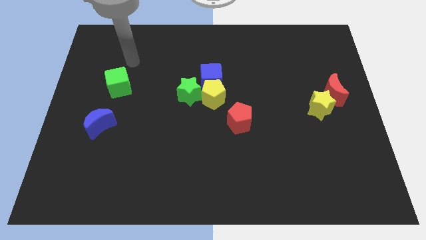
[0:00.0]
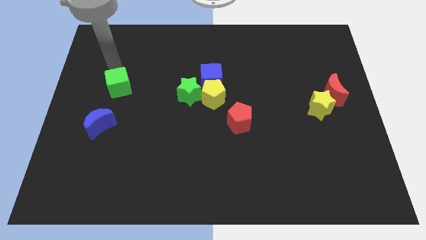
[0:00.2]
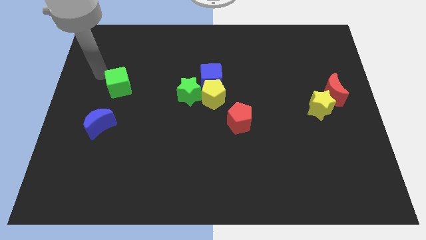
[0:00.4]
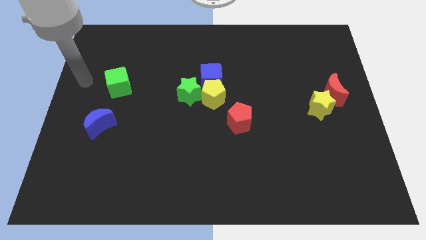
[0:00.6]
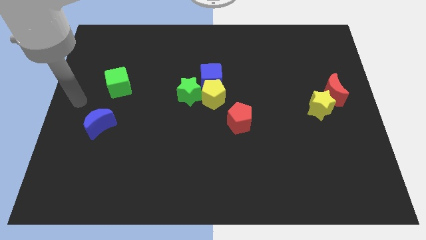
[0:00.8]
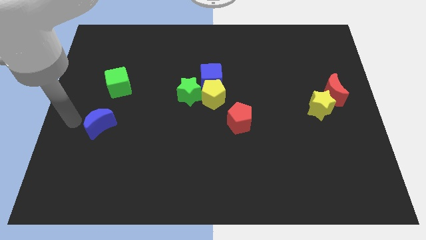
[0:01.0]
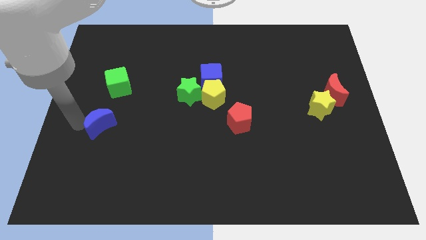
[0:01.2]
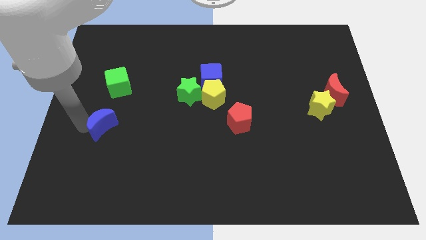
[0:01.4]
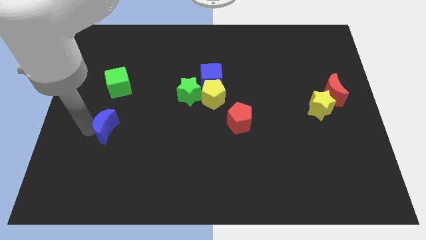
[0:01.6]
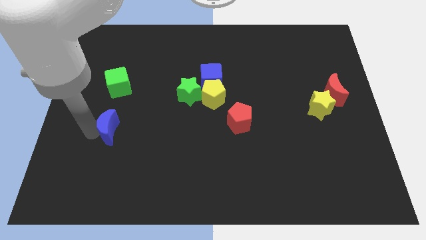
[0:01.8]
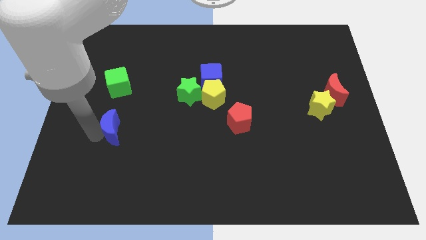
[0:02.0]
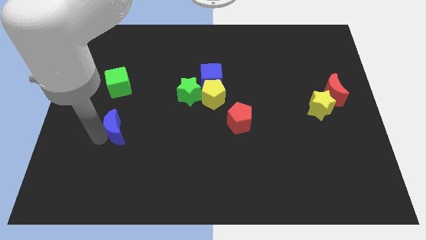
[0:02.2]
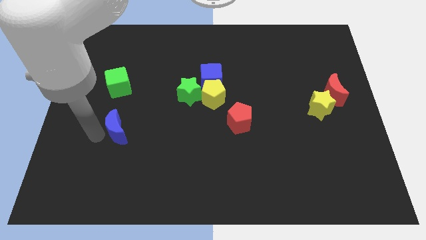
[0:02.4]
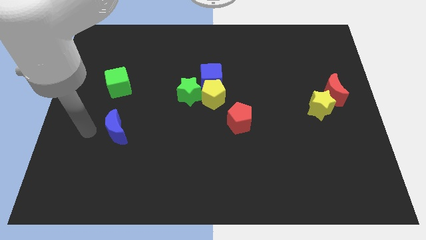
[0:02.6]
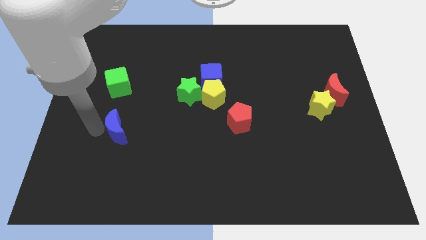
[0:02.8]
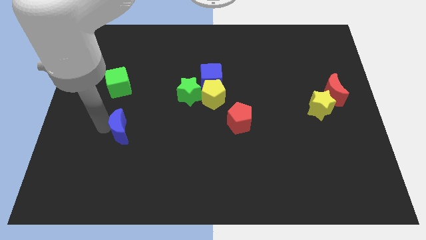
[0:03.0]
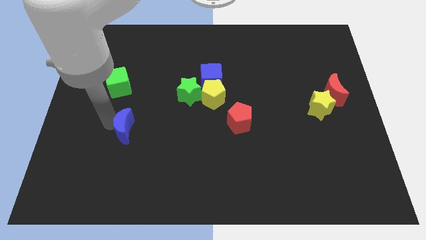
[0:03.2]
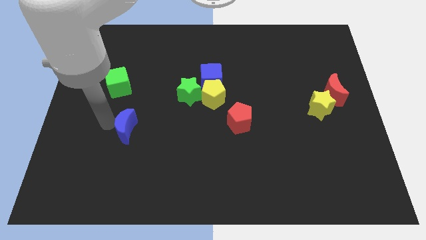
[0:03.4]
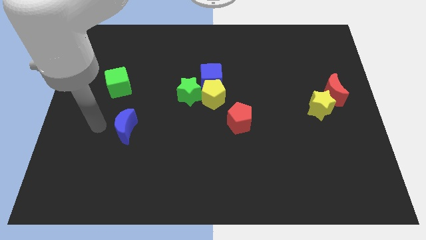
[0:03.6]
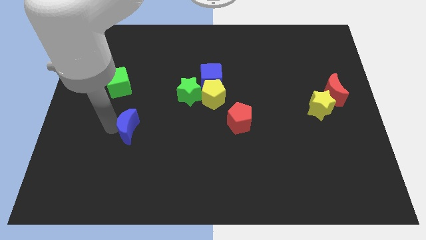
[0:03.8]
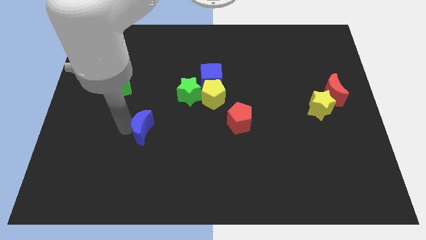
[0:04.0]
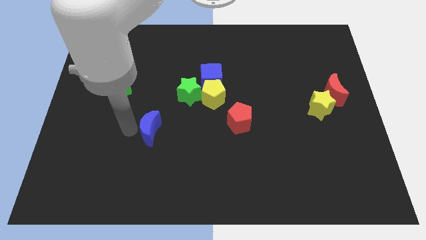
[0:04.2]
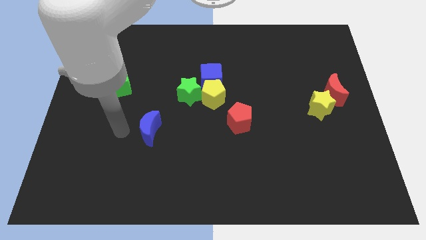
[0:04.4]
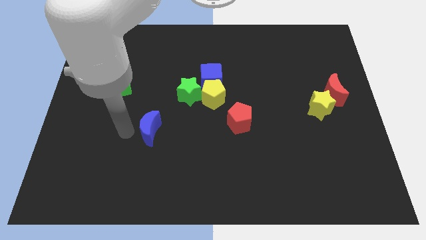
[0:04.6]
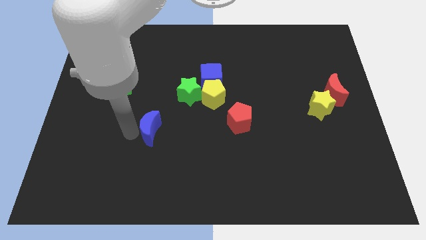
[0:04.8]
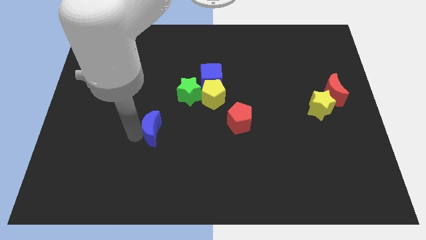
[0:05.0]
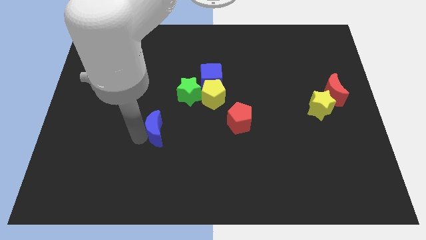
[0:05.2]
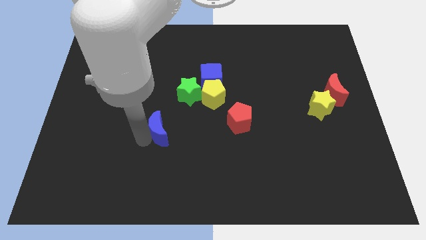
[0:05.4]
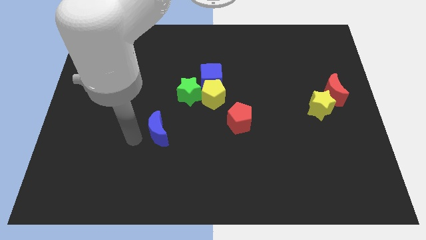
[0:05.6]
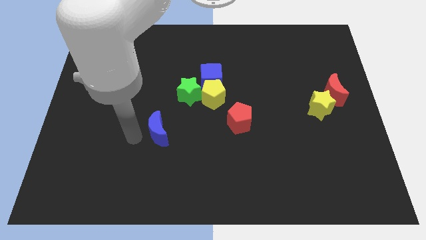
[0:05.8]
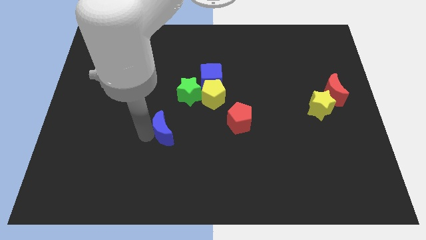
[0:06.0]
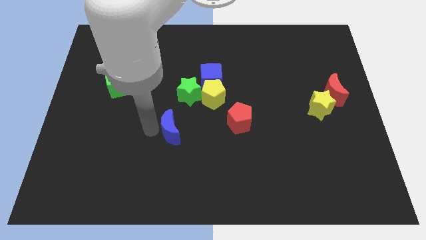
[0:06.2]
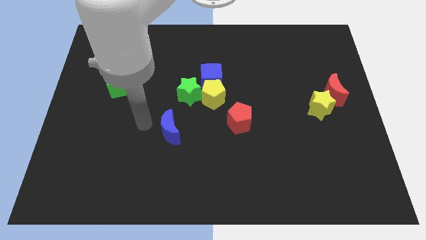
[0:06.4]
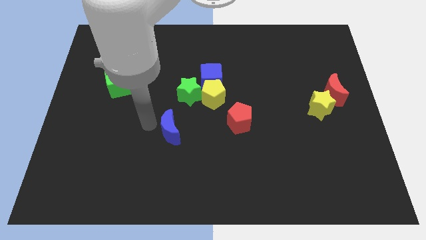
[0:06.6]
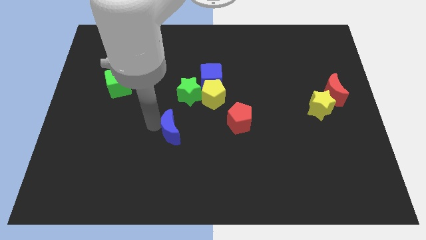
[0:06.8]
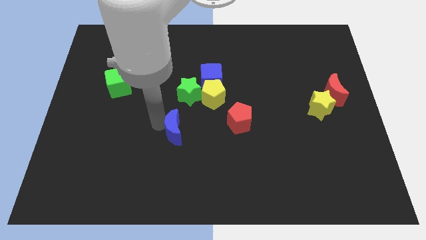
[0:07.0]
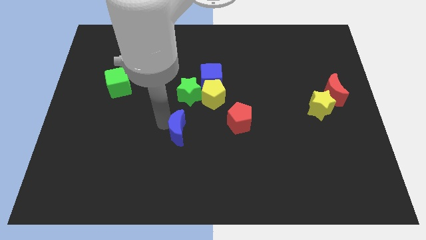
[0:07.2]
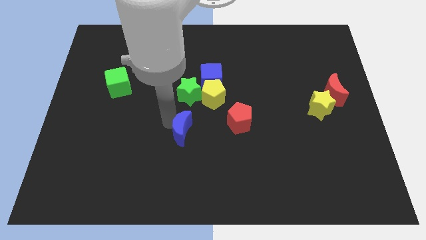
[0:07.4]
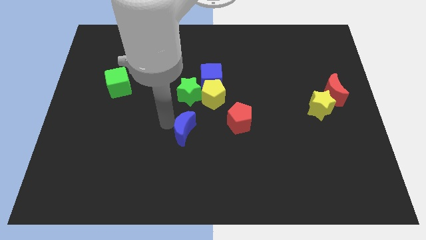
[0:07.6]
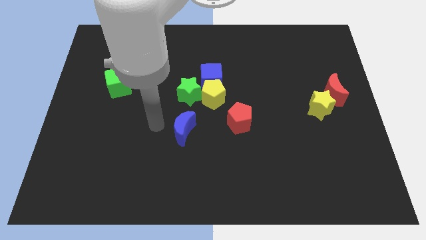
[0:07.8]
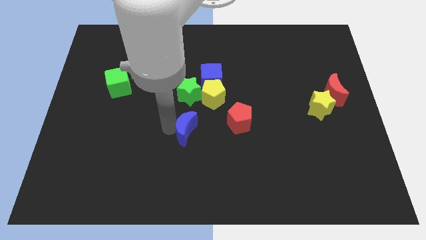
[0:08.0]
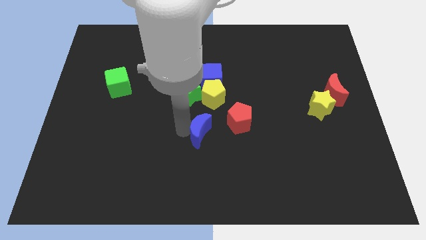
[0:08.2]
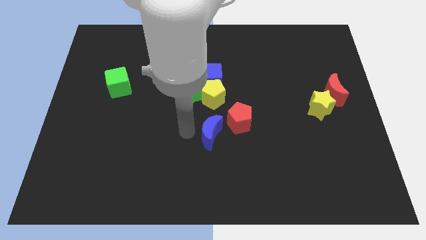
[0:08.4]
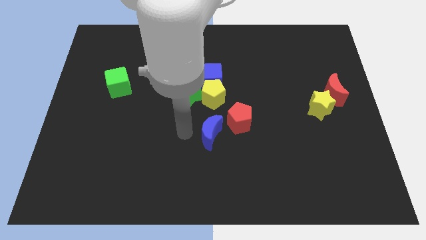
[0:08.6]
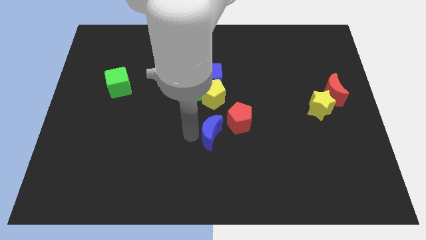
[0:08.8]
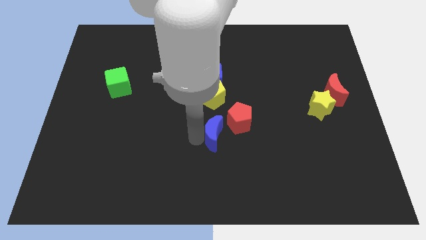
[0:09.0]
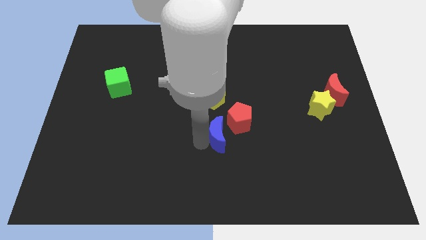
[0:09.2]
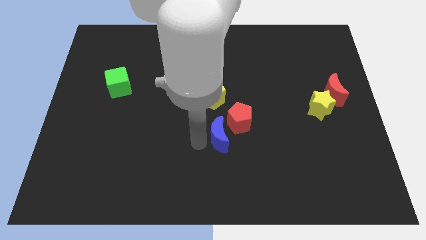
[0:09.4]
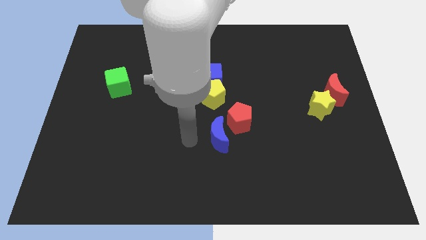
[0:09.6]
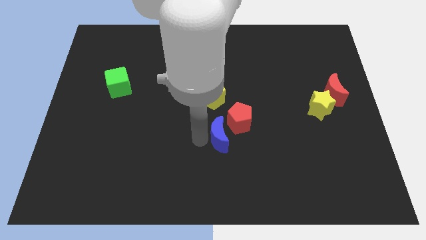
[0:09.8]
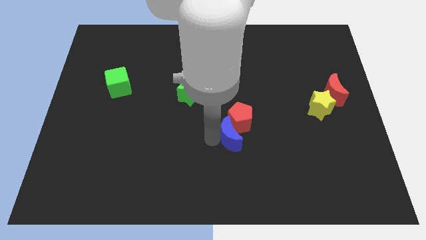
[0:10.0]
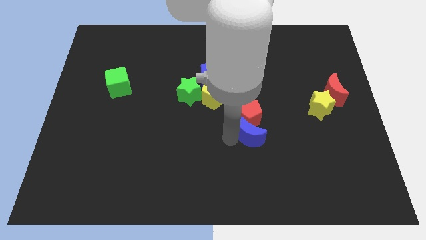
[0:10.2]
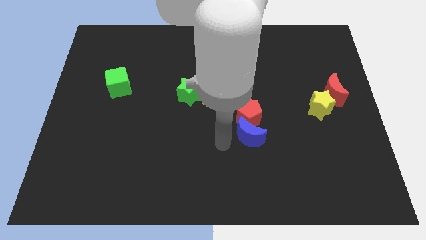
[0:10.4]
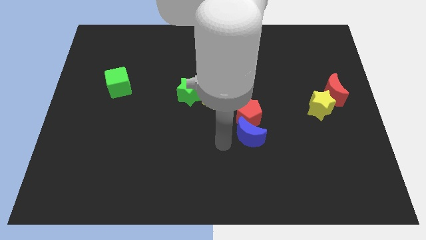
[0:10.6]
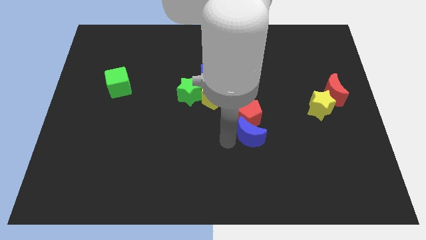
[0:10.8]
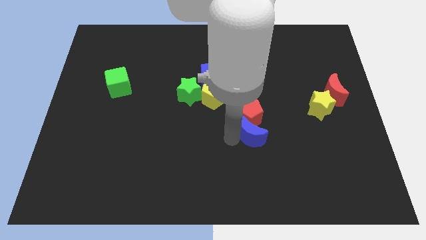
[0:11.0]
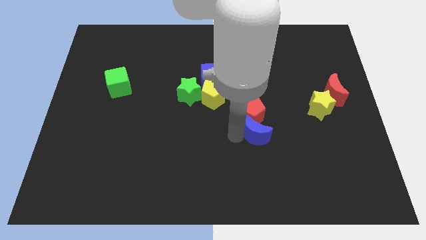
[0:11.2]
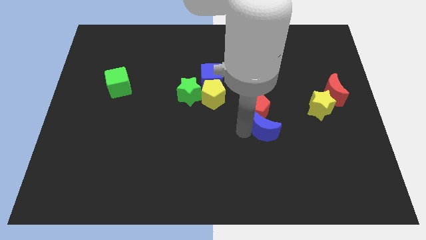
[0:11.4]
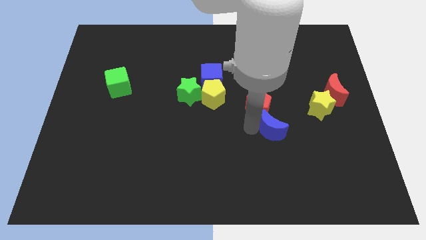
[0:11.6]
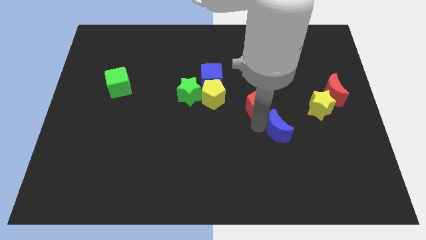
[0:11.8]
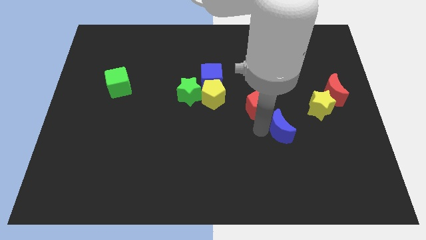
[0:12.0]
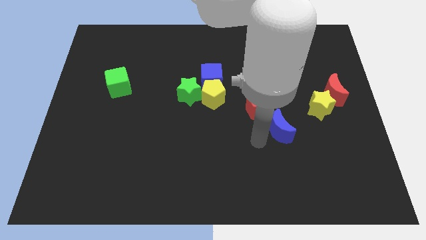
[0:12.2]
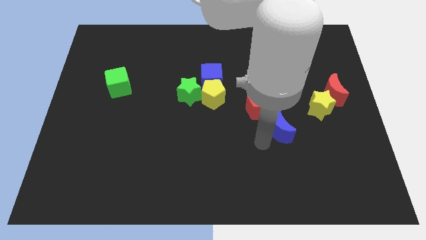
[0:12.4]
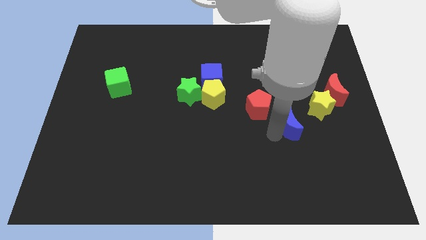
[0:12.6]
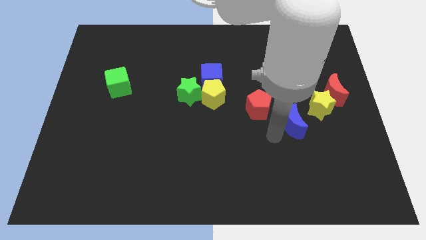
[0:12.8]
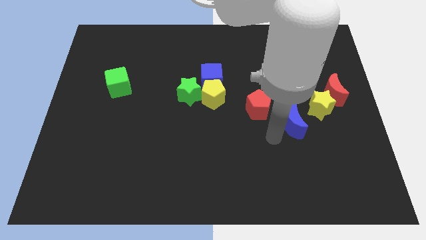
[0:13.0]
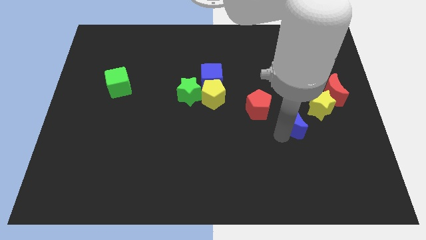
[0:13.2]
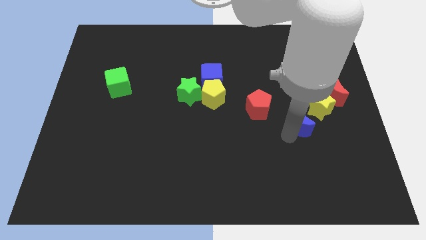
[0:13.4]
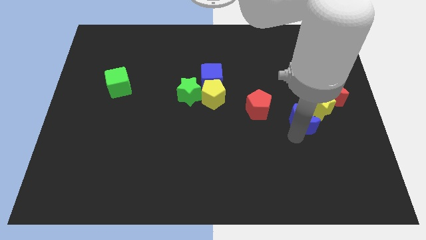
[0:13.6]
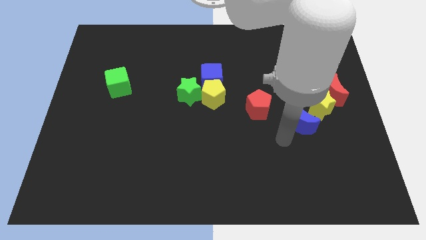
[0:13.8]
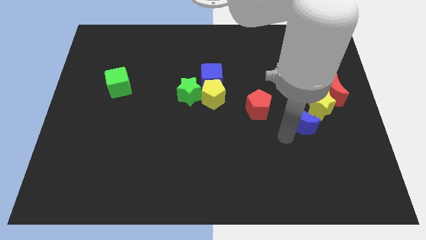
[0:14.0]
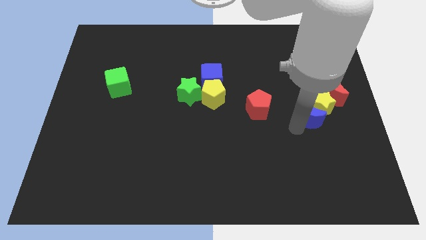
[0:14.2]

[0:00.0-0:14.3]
push the blue moon next to the yellow star

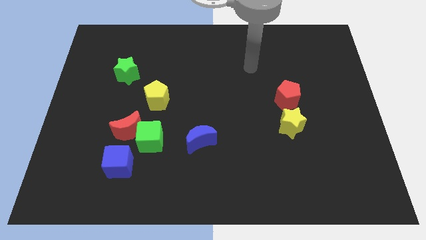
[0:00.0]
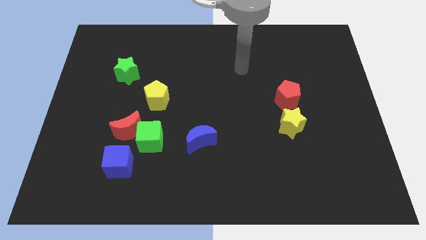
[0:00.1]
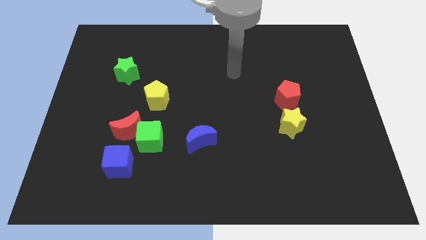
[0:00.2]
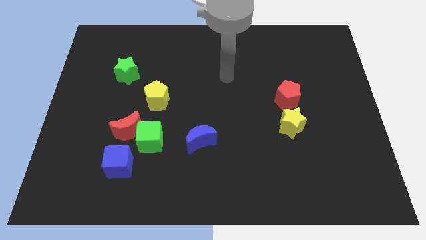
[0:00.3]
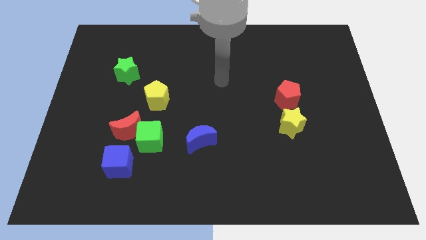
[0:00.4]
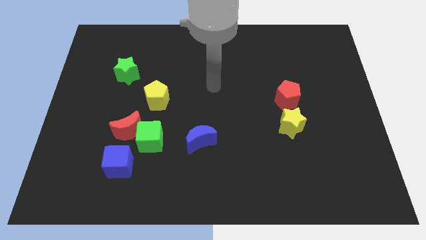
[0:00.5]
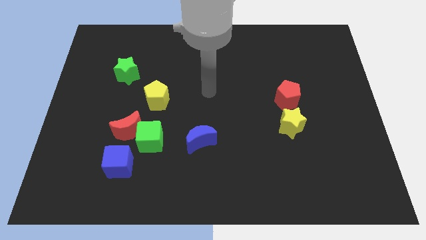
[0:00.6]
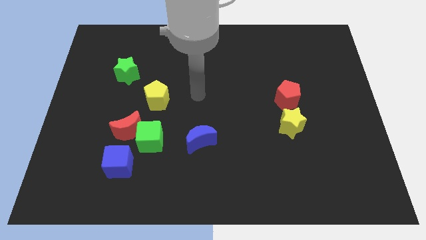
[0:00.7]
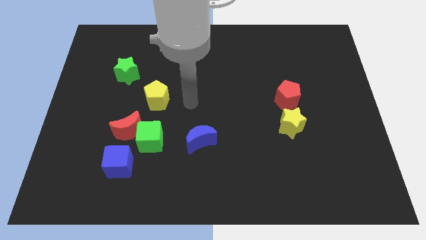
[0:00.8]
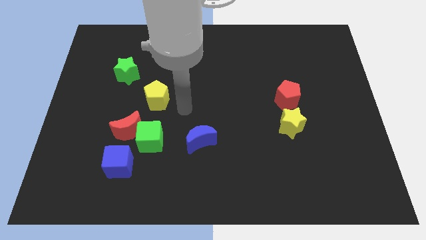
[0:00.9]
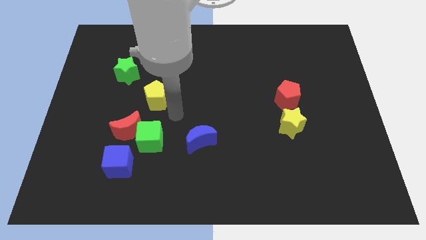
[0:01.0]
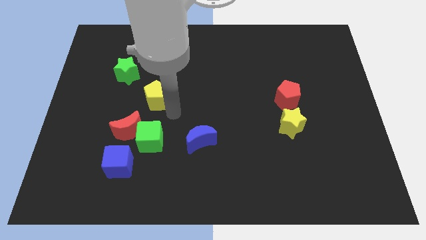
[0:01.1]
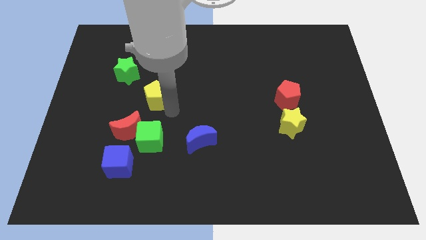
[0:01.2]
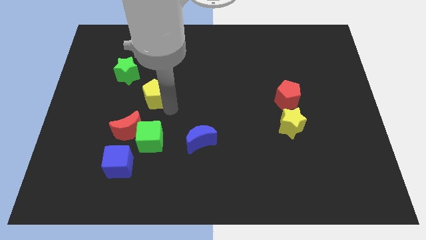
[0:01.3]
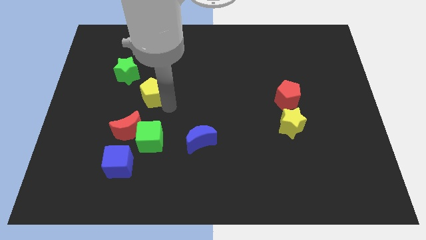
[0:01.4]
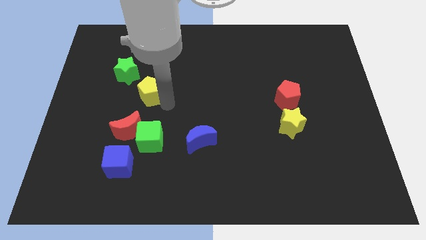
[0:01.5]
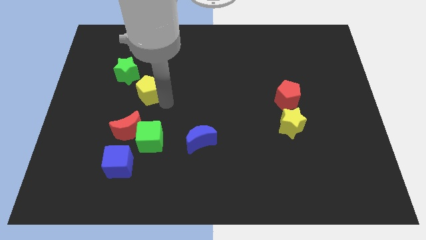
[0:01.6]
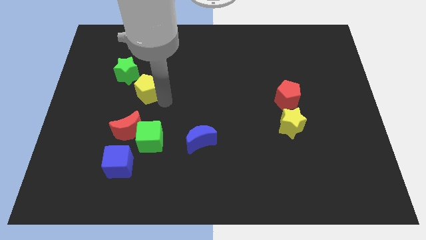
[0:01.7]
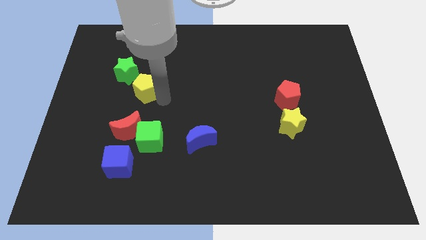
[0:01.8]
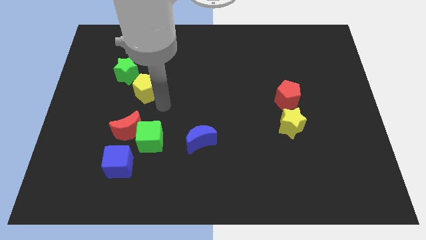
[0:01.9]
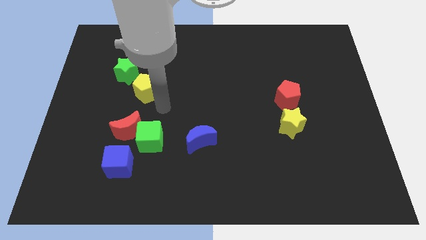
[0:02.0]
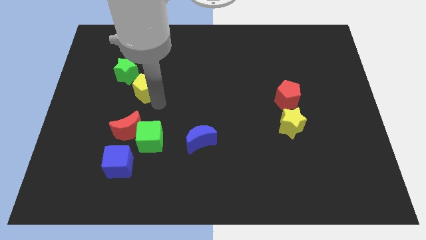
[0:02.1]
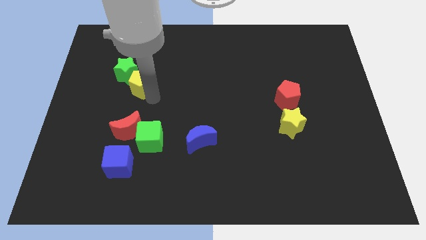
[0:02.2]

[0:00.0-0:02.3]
put the yellow pentagon next to the green star
